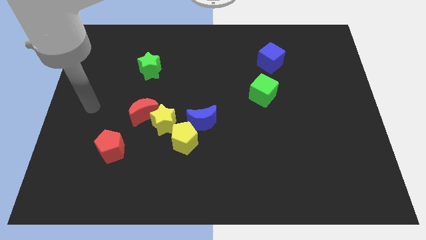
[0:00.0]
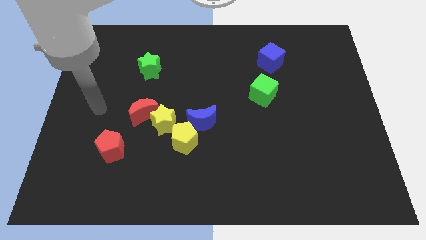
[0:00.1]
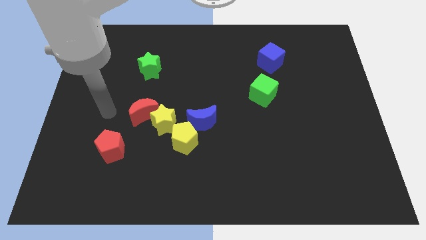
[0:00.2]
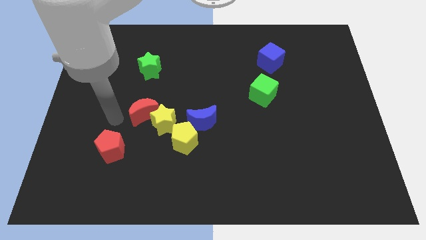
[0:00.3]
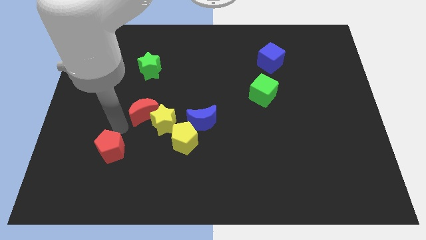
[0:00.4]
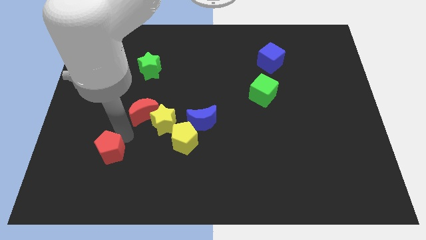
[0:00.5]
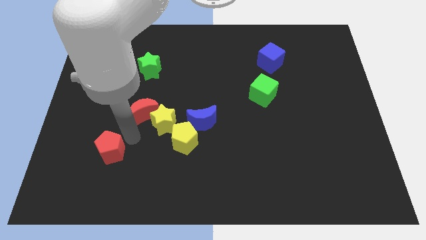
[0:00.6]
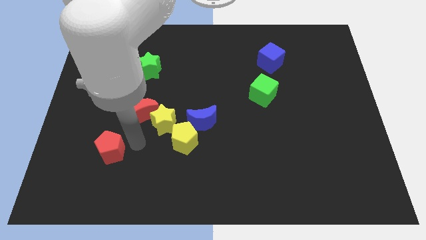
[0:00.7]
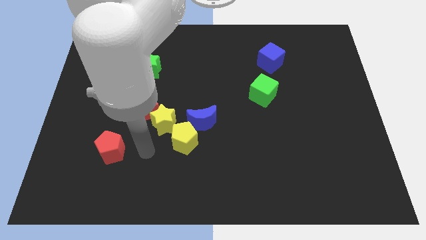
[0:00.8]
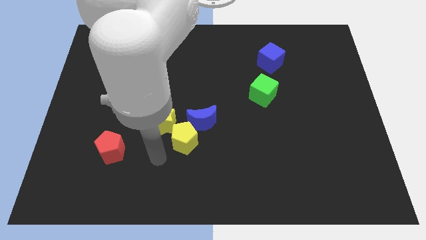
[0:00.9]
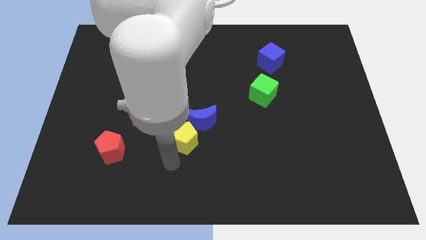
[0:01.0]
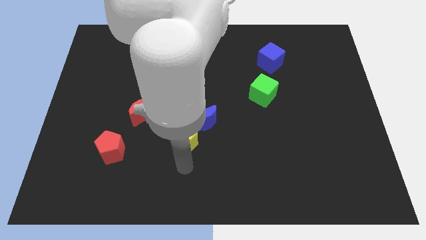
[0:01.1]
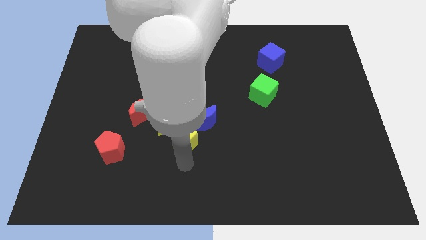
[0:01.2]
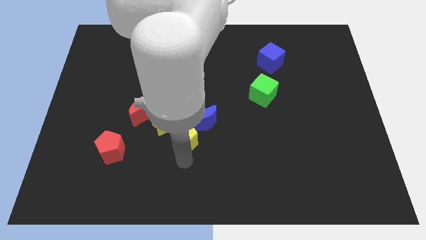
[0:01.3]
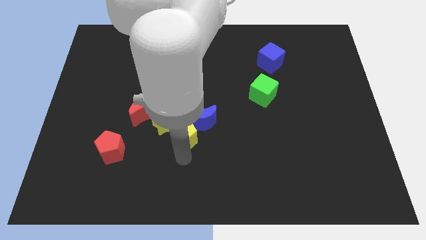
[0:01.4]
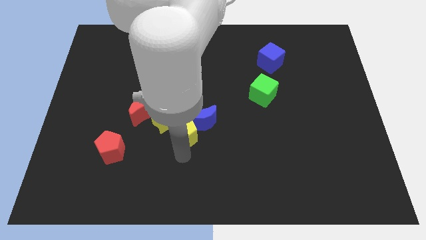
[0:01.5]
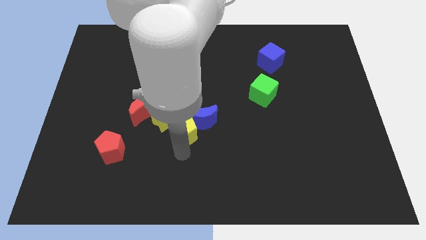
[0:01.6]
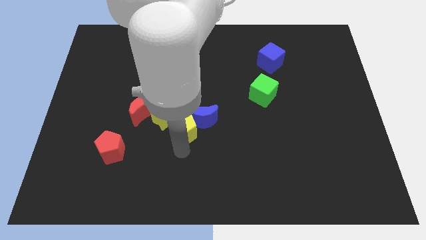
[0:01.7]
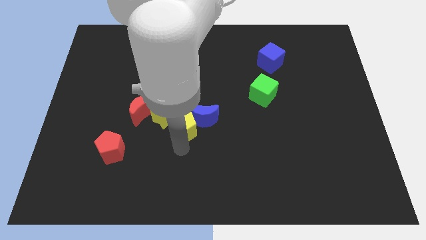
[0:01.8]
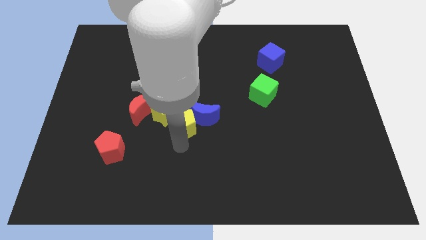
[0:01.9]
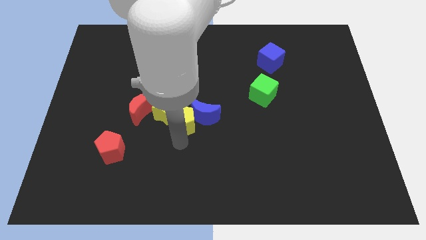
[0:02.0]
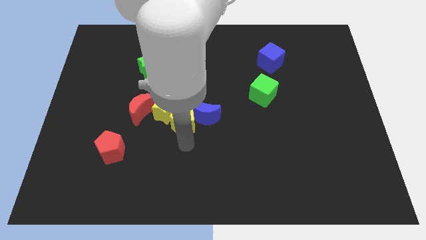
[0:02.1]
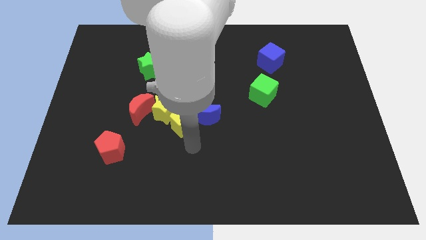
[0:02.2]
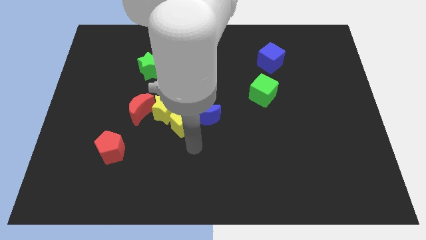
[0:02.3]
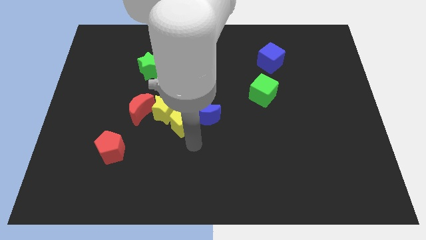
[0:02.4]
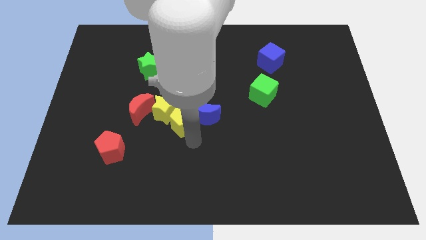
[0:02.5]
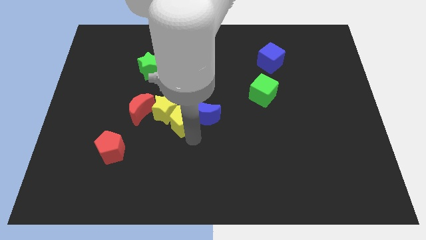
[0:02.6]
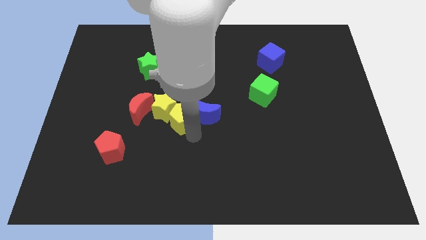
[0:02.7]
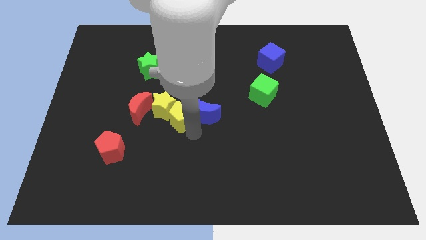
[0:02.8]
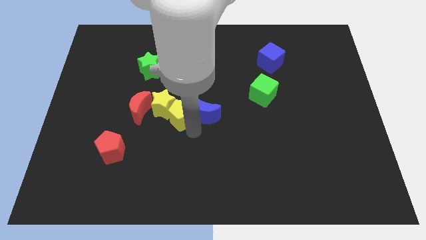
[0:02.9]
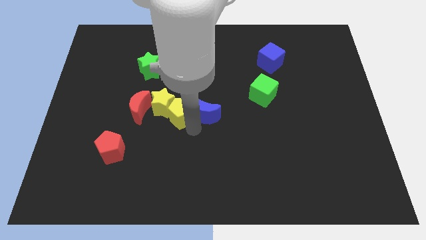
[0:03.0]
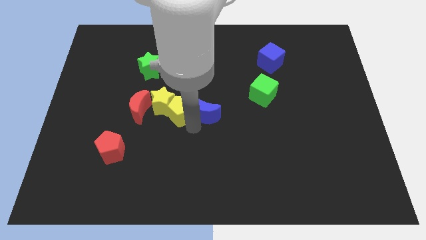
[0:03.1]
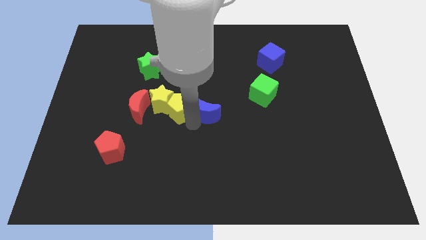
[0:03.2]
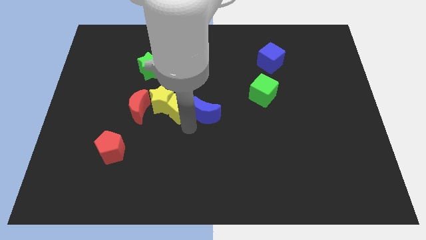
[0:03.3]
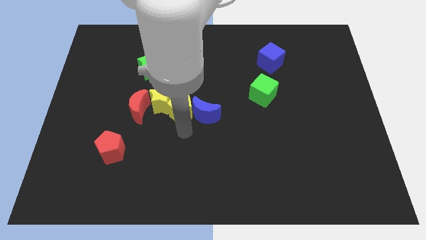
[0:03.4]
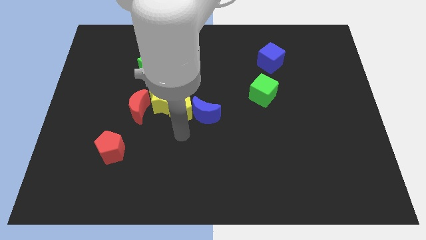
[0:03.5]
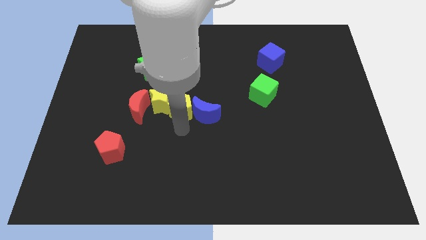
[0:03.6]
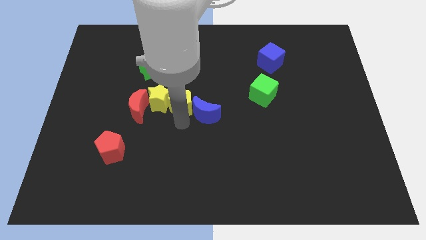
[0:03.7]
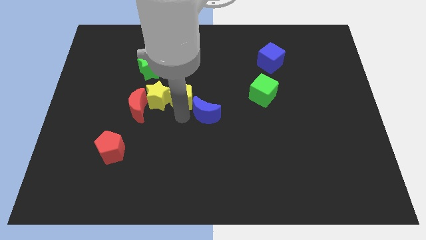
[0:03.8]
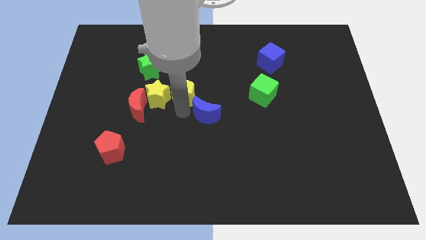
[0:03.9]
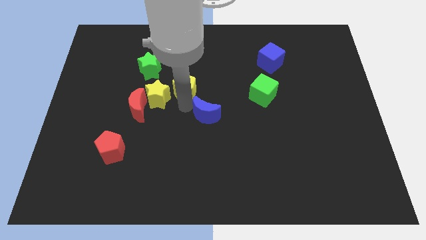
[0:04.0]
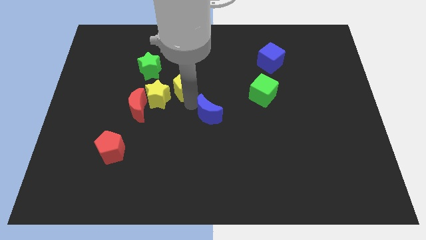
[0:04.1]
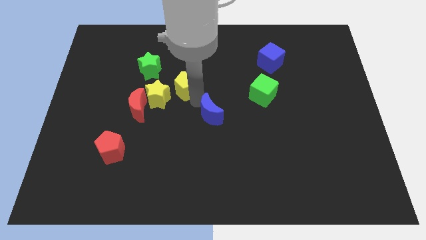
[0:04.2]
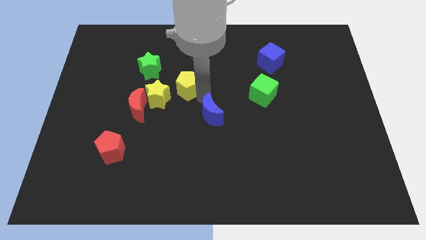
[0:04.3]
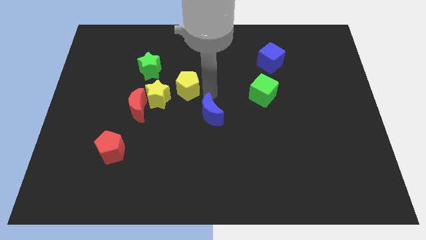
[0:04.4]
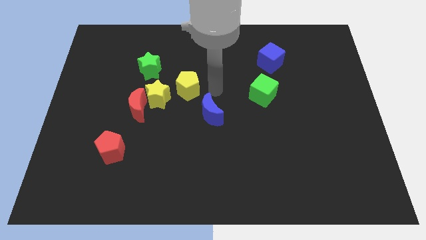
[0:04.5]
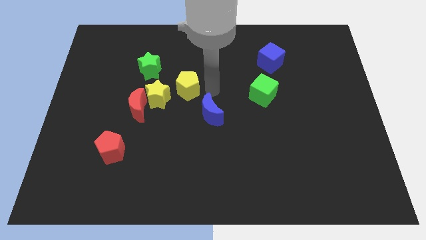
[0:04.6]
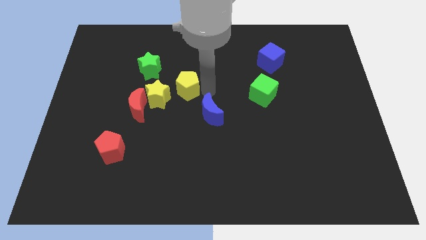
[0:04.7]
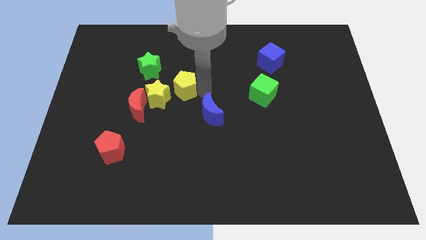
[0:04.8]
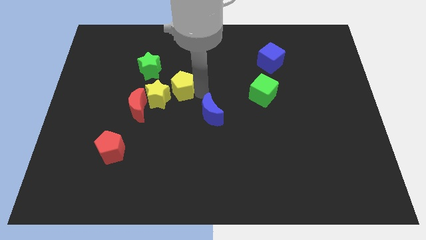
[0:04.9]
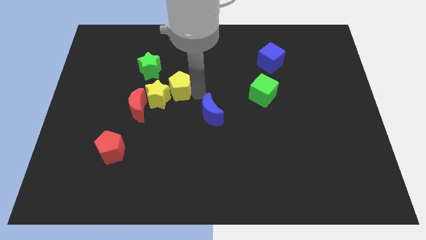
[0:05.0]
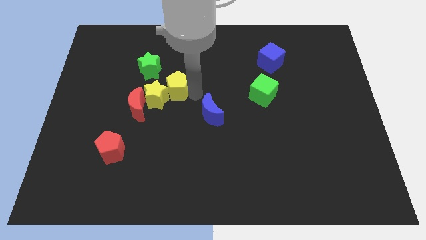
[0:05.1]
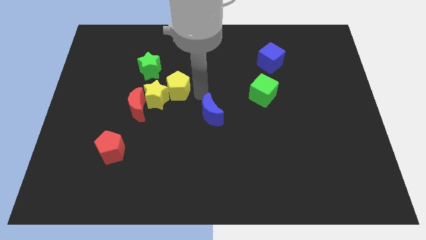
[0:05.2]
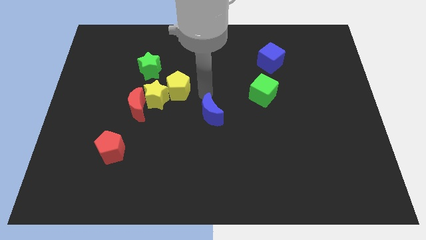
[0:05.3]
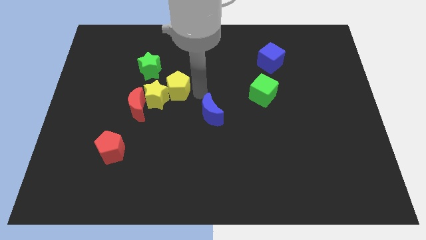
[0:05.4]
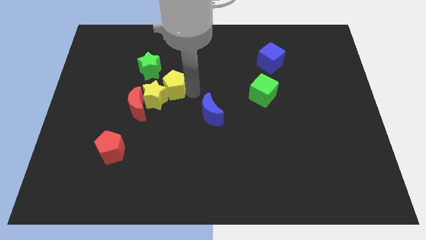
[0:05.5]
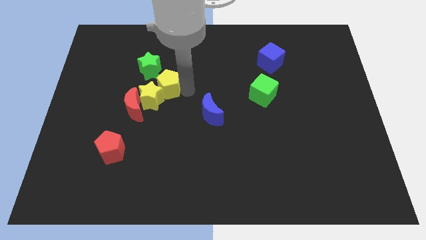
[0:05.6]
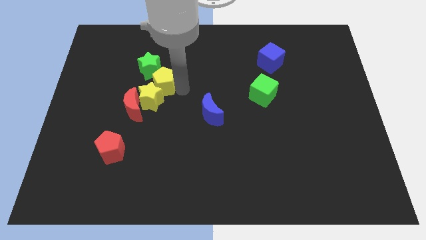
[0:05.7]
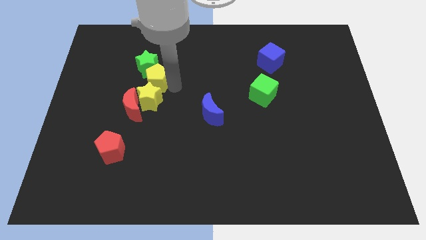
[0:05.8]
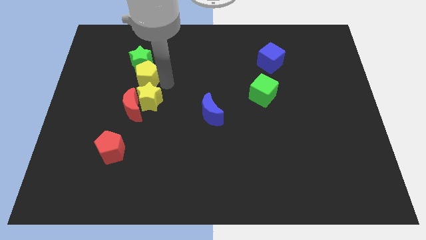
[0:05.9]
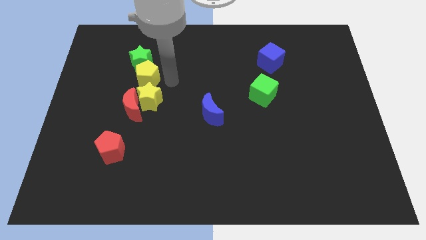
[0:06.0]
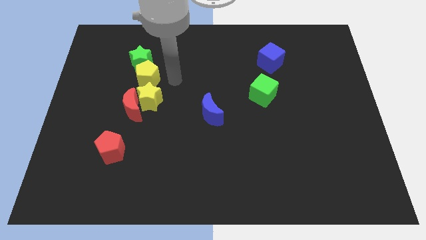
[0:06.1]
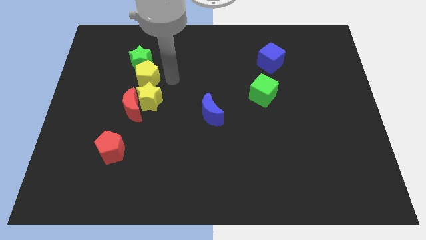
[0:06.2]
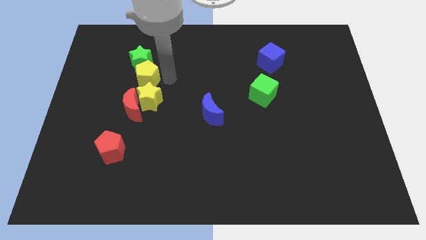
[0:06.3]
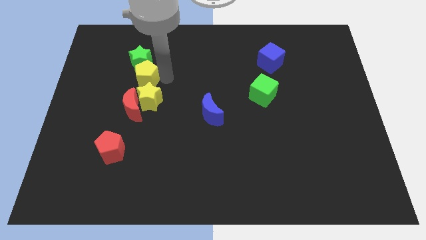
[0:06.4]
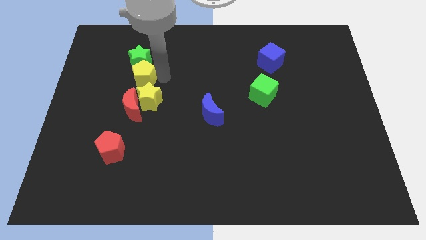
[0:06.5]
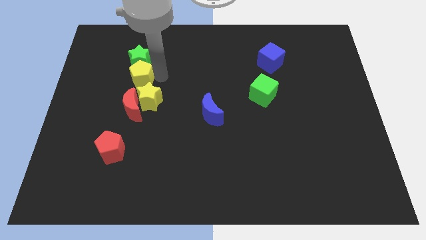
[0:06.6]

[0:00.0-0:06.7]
put the yellow pentagon to the bottom left of the green star
